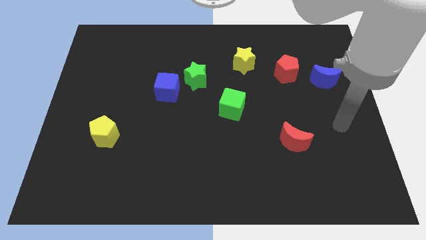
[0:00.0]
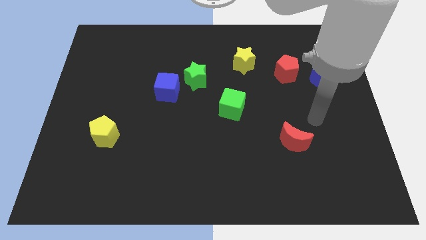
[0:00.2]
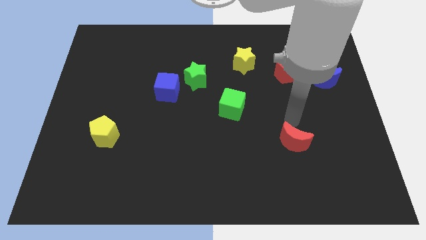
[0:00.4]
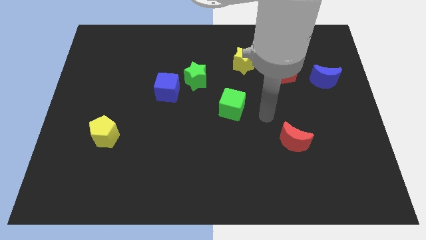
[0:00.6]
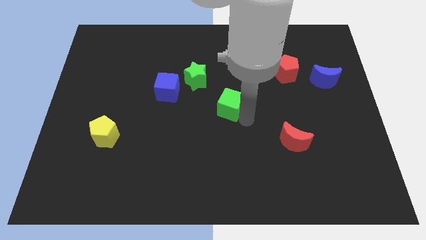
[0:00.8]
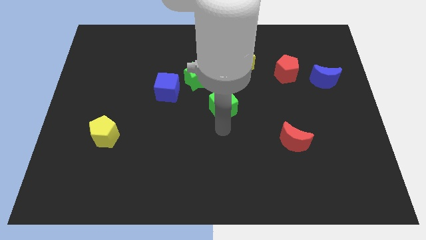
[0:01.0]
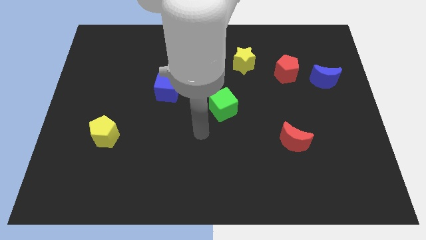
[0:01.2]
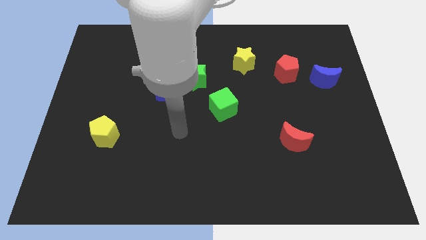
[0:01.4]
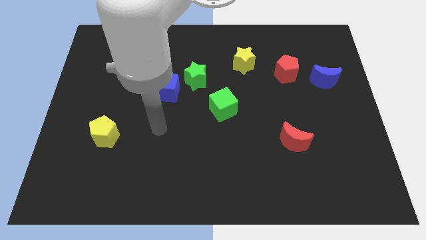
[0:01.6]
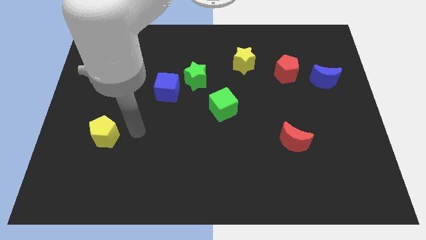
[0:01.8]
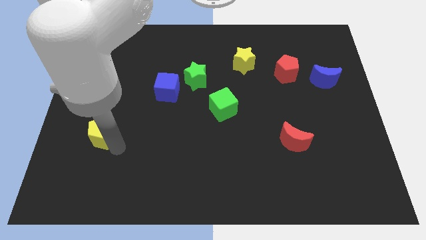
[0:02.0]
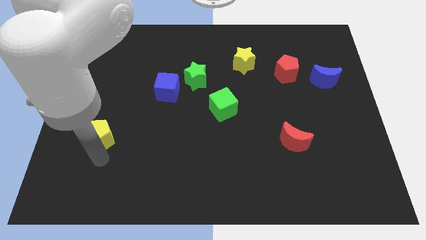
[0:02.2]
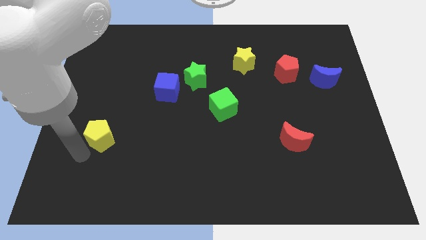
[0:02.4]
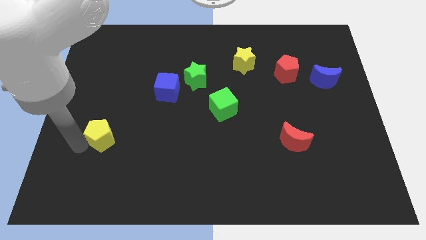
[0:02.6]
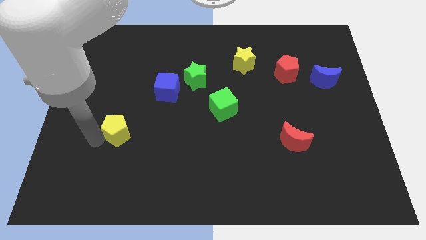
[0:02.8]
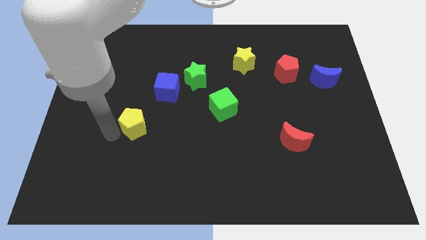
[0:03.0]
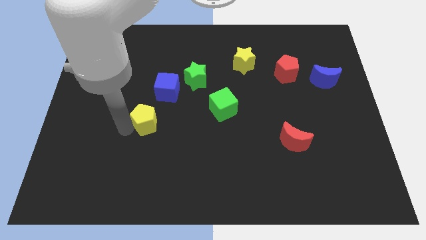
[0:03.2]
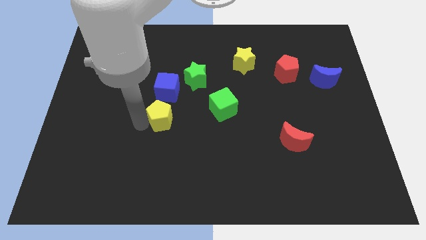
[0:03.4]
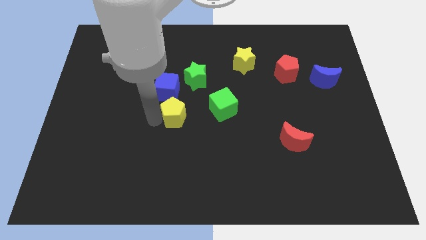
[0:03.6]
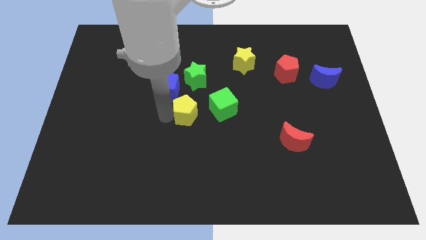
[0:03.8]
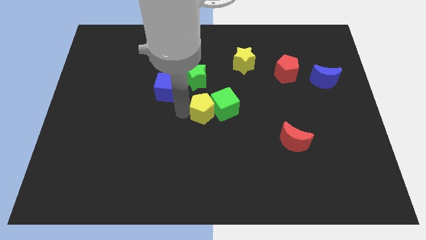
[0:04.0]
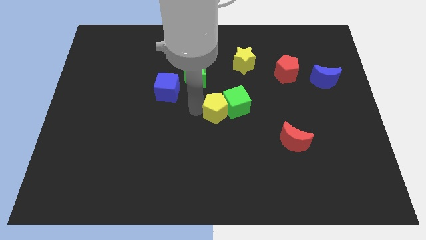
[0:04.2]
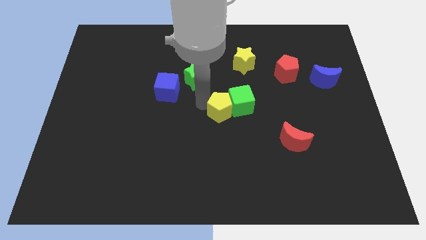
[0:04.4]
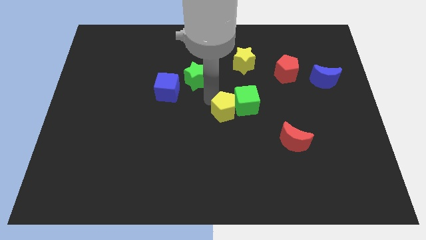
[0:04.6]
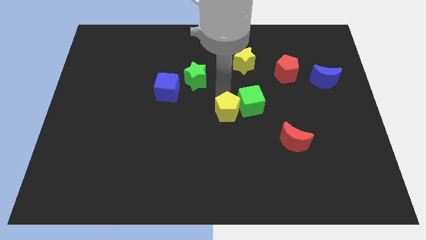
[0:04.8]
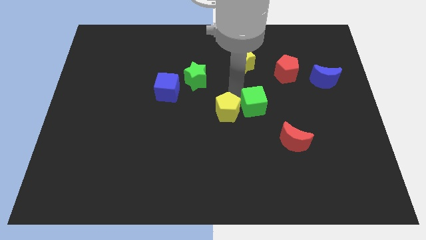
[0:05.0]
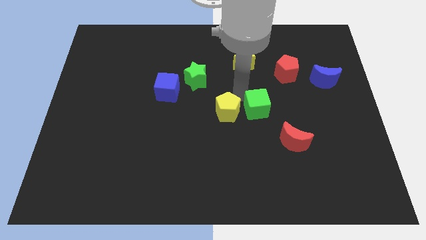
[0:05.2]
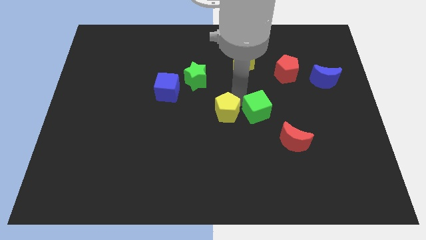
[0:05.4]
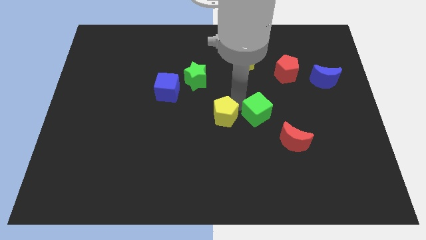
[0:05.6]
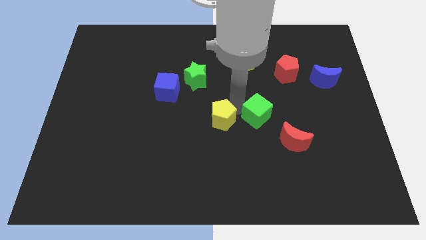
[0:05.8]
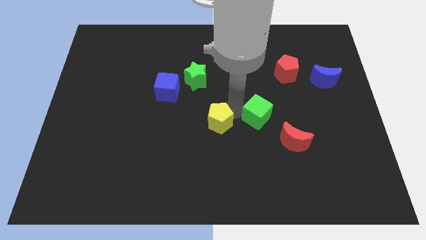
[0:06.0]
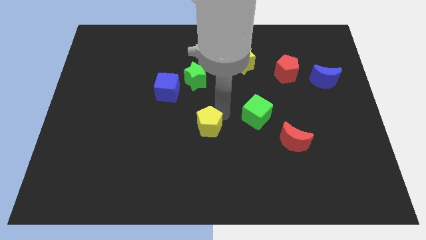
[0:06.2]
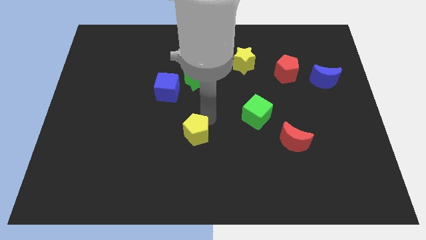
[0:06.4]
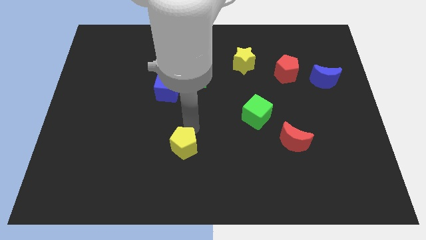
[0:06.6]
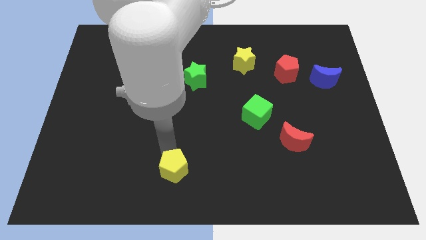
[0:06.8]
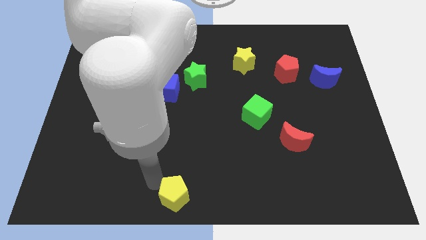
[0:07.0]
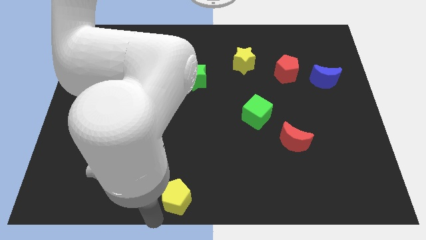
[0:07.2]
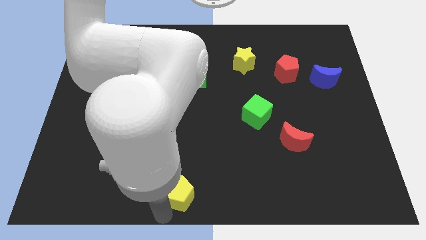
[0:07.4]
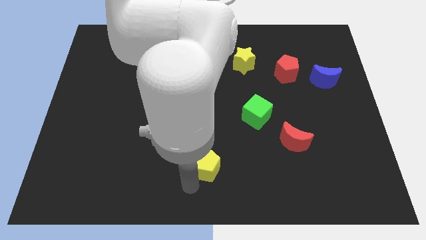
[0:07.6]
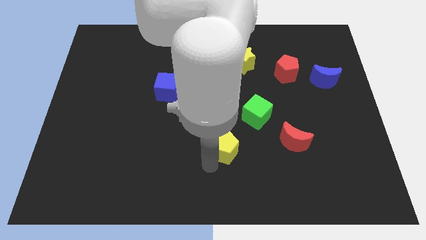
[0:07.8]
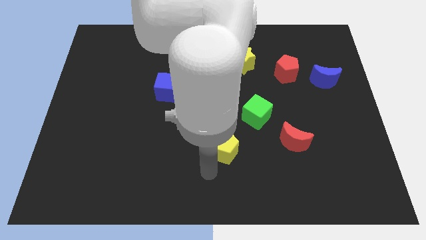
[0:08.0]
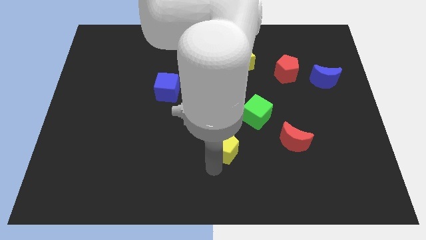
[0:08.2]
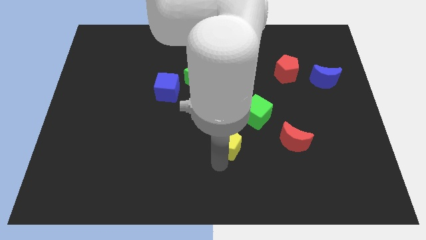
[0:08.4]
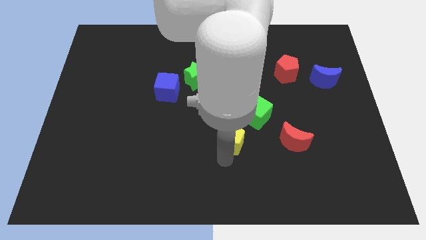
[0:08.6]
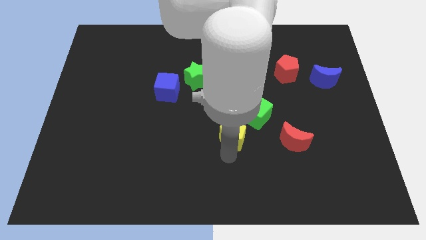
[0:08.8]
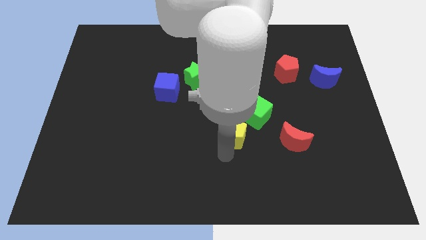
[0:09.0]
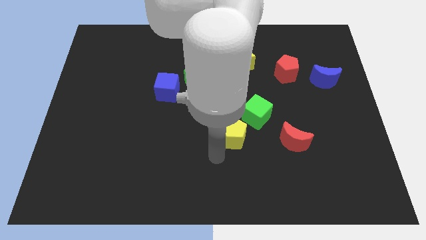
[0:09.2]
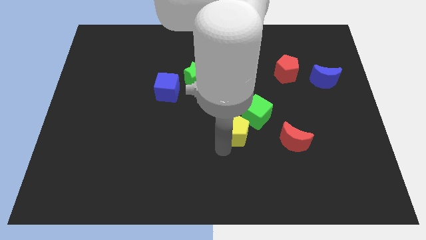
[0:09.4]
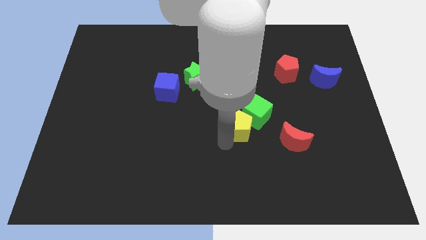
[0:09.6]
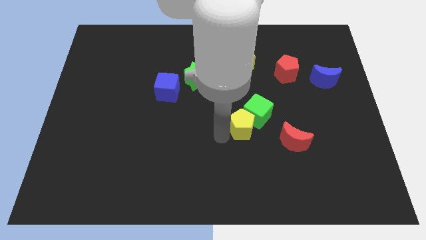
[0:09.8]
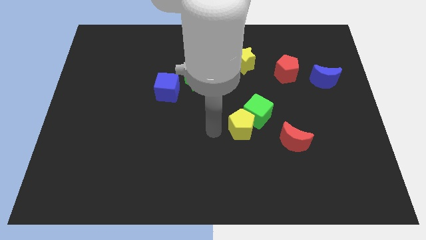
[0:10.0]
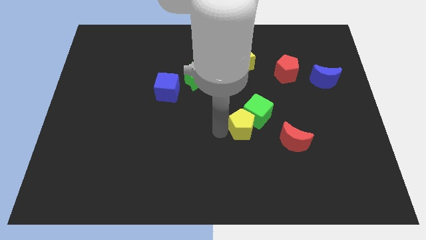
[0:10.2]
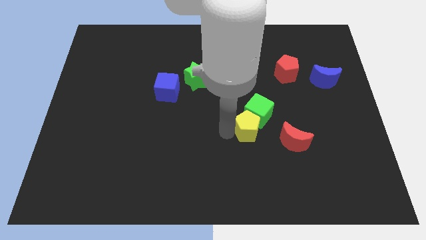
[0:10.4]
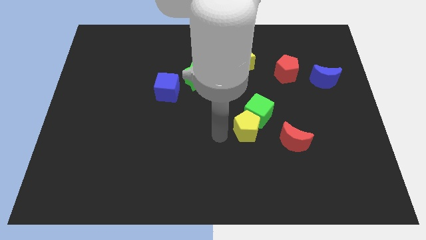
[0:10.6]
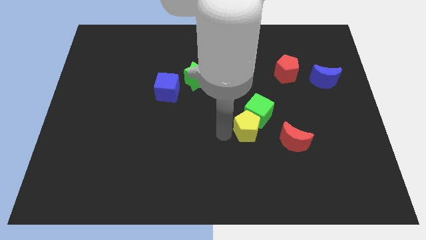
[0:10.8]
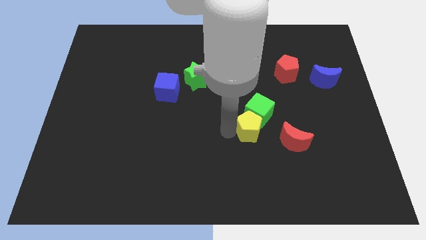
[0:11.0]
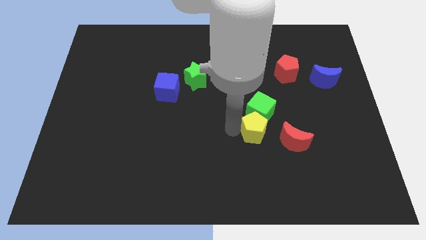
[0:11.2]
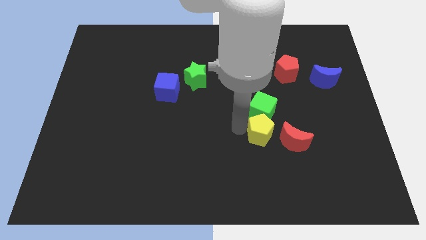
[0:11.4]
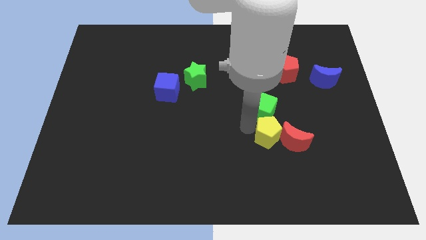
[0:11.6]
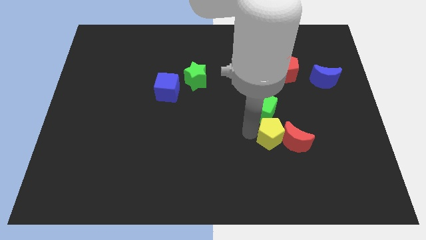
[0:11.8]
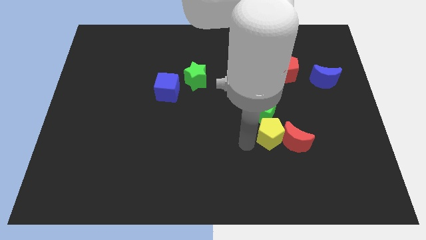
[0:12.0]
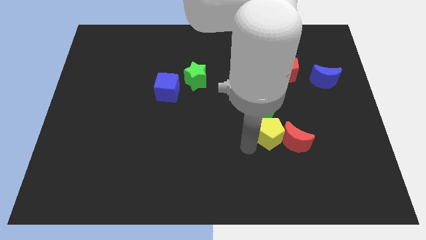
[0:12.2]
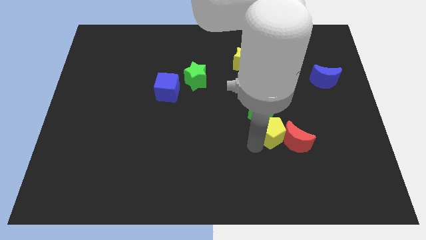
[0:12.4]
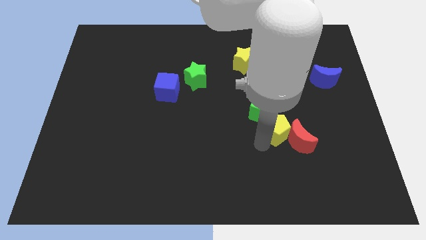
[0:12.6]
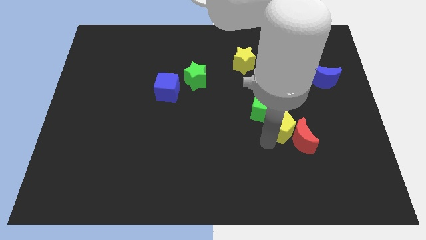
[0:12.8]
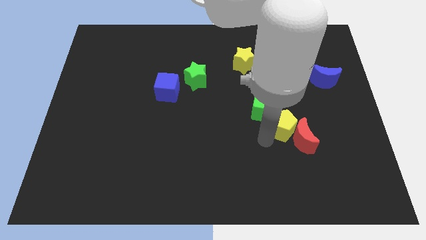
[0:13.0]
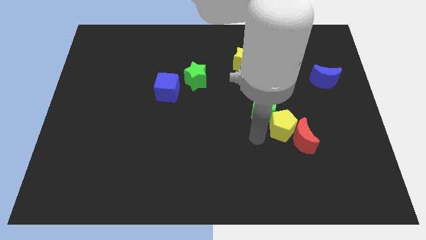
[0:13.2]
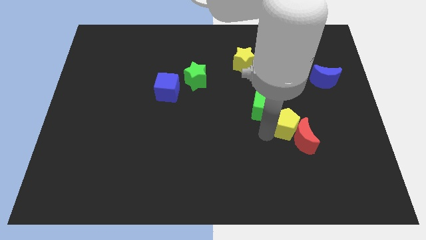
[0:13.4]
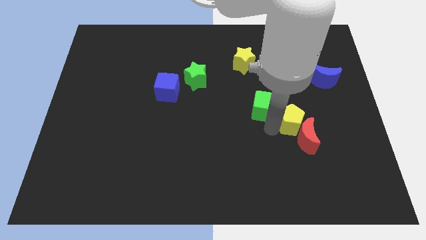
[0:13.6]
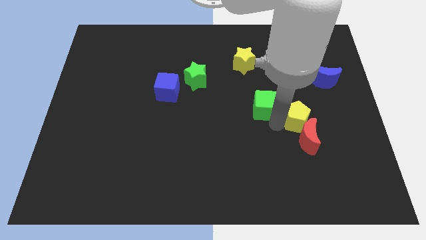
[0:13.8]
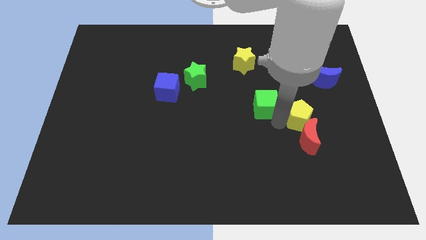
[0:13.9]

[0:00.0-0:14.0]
put the yellow pentagon diagonally up and to the right of the red moon

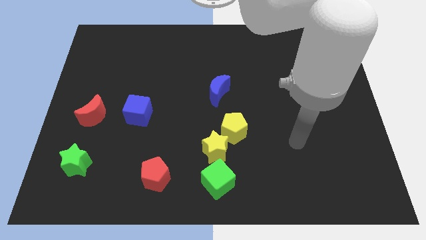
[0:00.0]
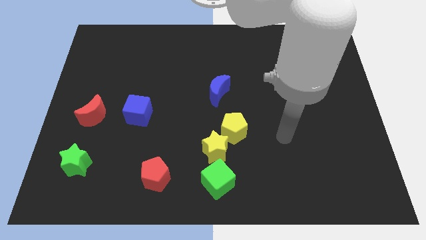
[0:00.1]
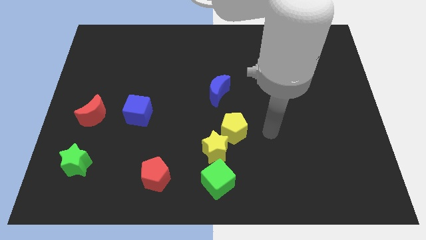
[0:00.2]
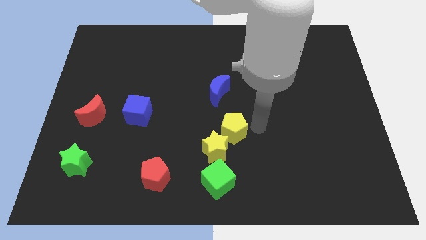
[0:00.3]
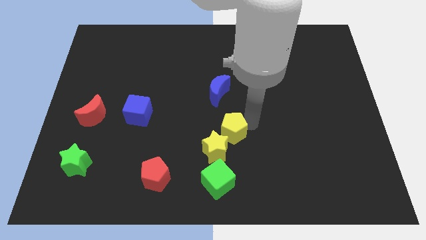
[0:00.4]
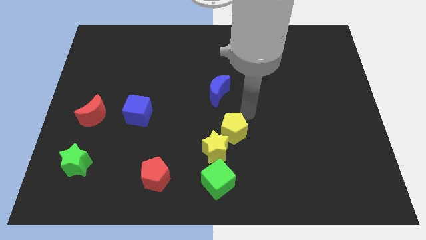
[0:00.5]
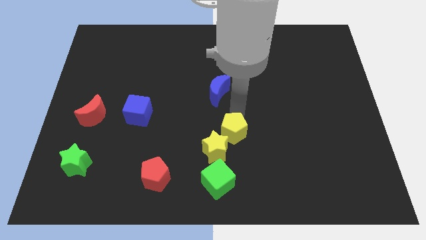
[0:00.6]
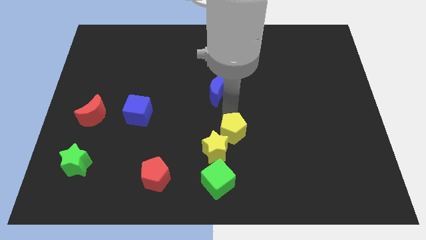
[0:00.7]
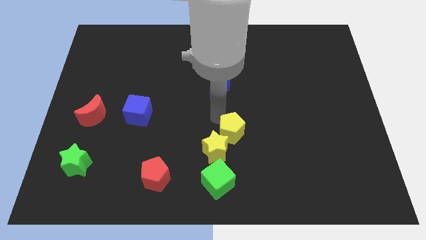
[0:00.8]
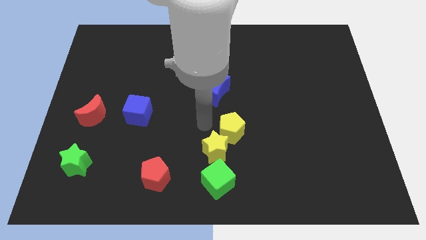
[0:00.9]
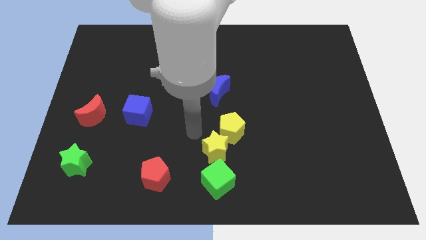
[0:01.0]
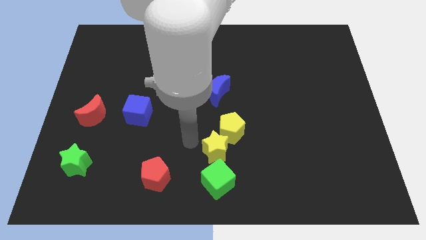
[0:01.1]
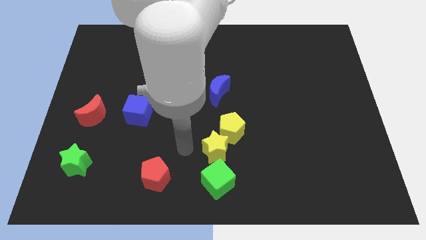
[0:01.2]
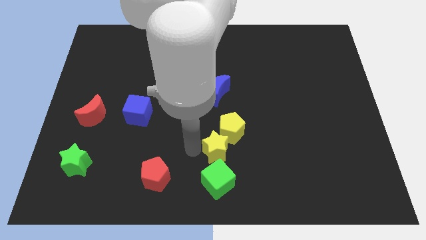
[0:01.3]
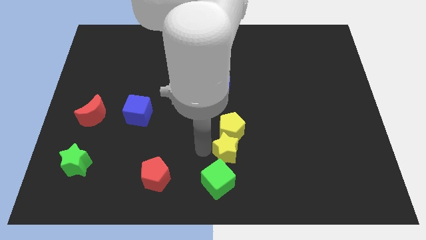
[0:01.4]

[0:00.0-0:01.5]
put the yellow star diagonally down and to the right of the yellow pentagon
